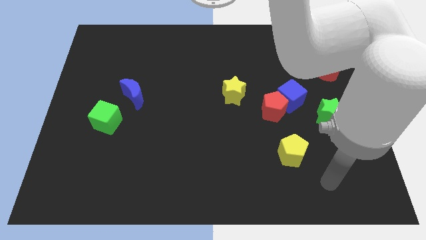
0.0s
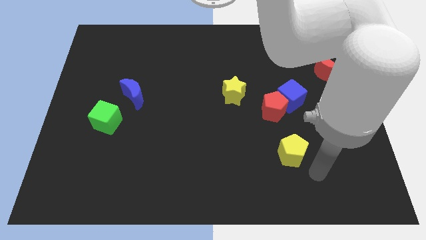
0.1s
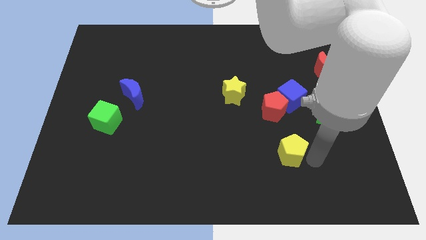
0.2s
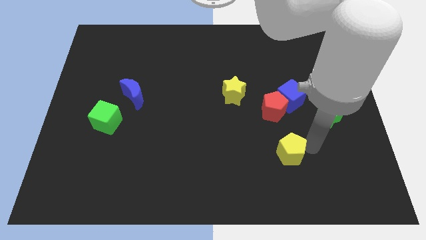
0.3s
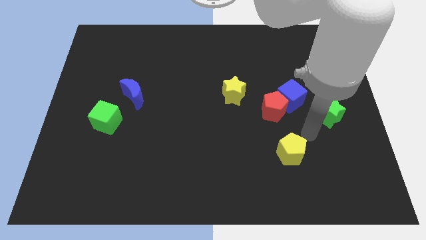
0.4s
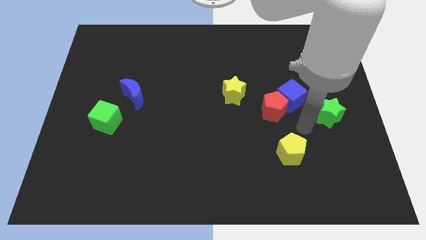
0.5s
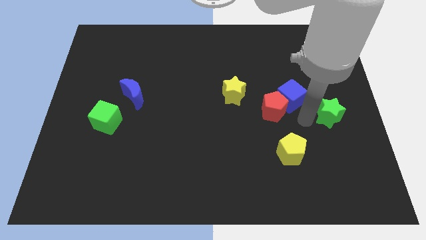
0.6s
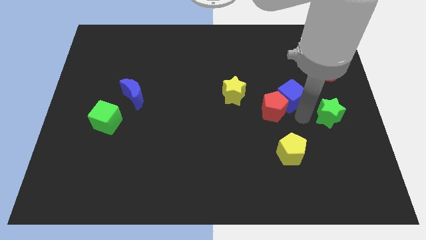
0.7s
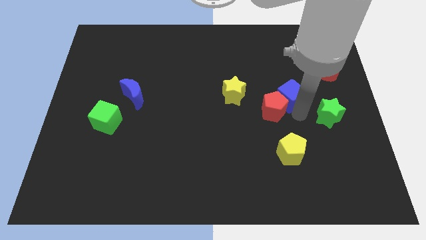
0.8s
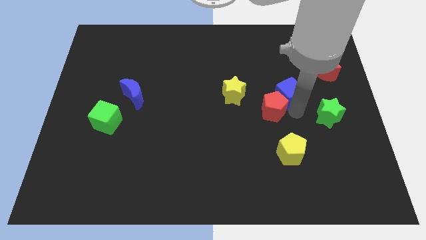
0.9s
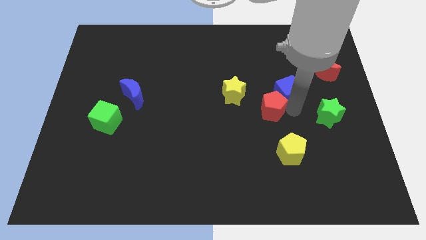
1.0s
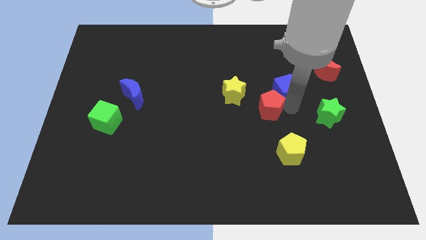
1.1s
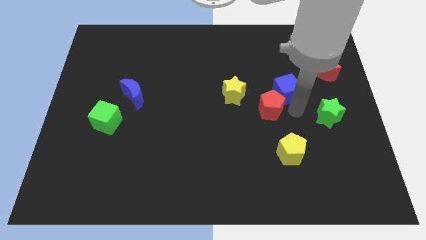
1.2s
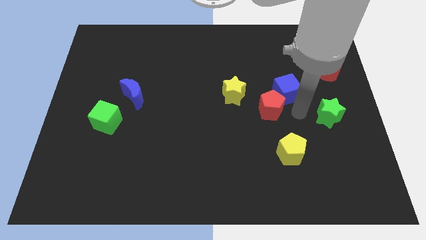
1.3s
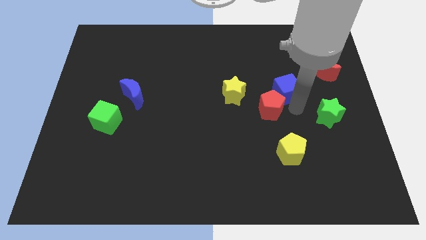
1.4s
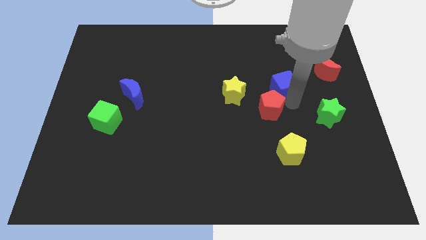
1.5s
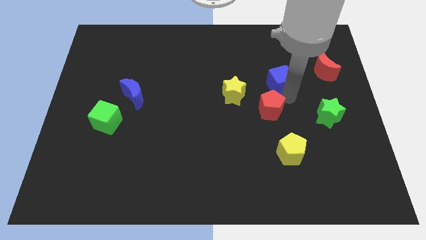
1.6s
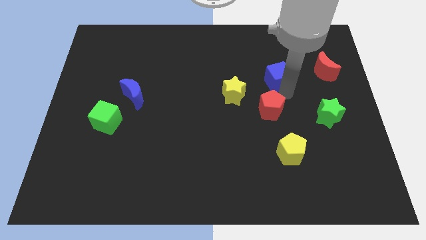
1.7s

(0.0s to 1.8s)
pull the blue cube apart from the red pentagon and green star

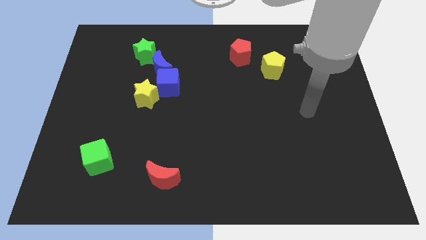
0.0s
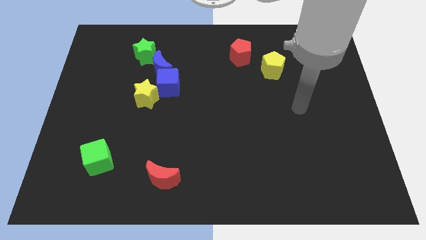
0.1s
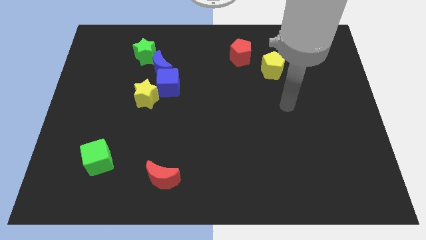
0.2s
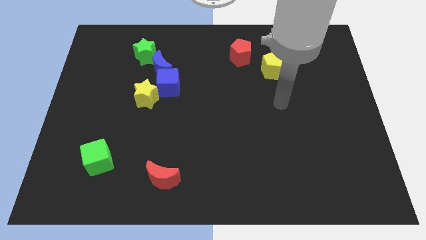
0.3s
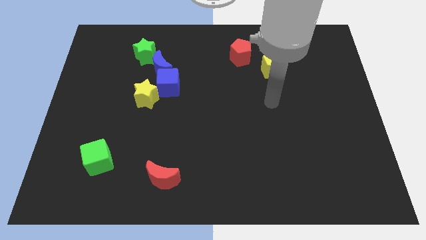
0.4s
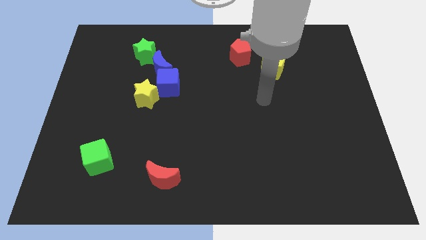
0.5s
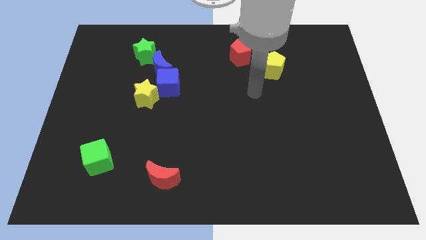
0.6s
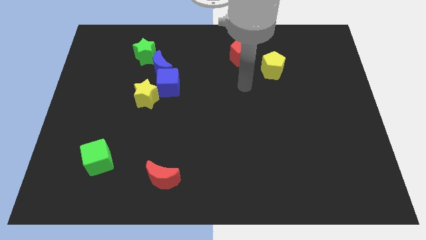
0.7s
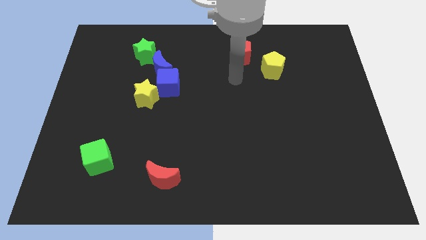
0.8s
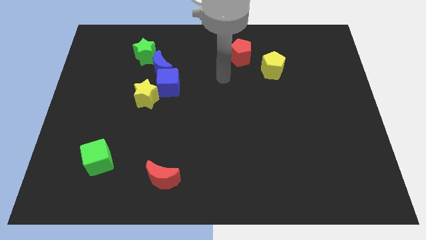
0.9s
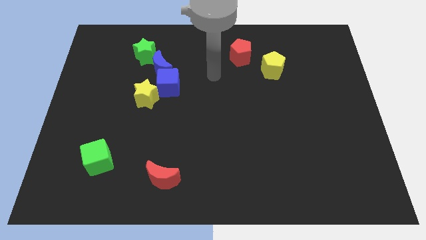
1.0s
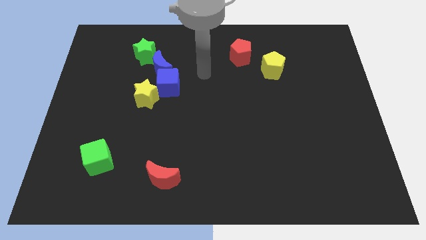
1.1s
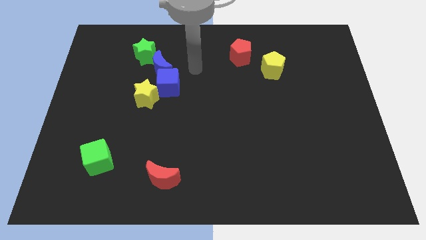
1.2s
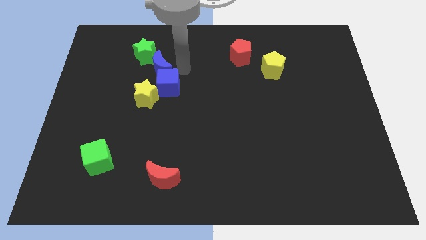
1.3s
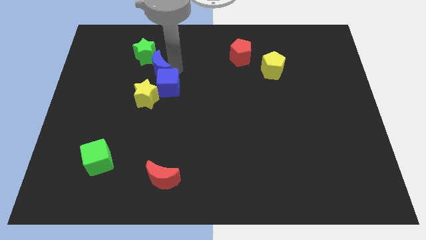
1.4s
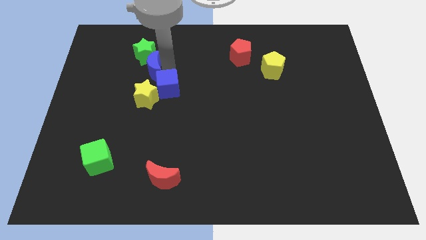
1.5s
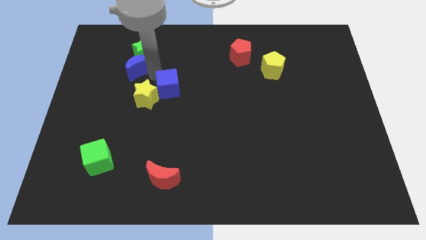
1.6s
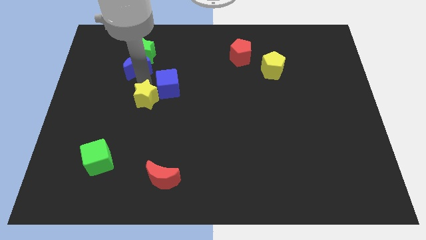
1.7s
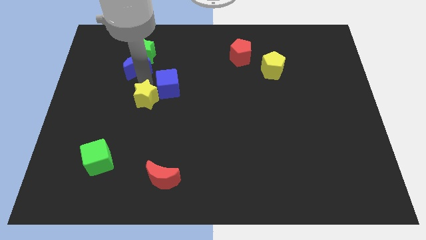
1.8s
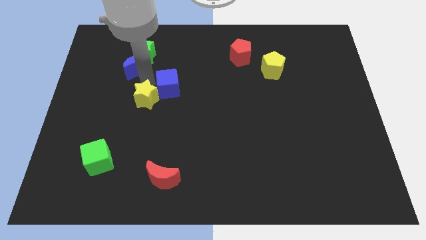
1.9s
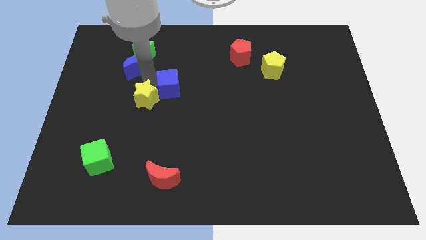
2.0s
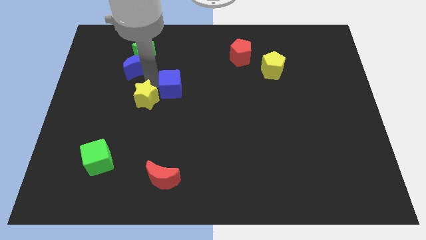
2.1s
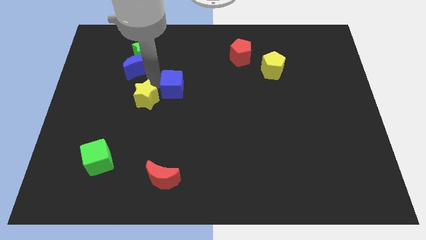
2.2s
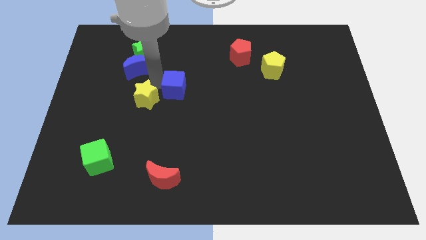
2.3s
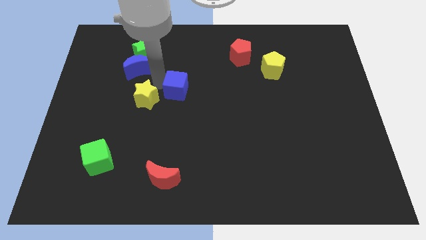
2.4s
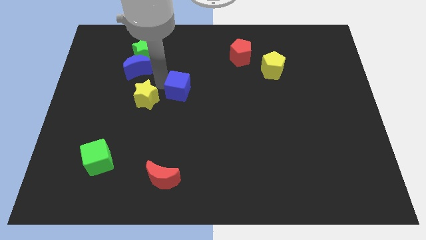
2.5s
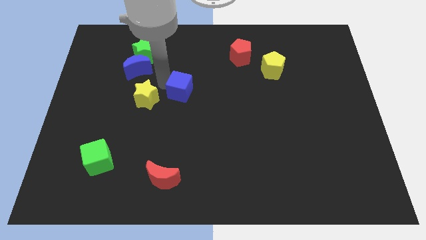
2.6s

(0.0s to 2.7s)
separate the blue cube from the blue moon and yellow star

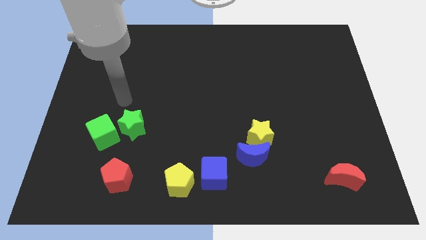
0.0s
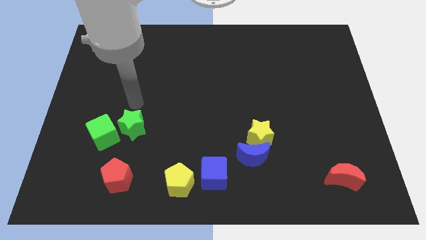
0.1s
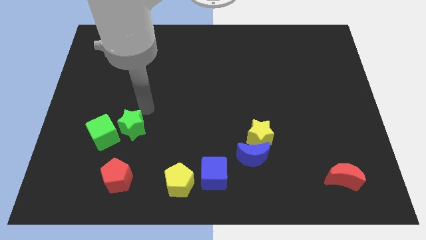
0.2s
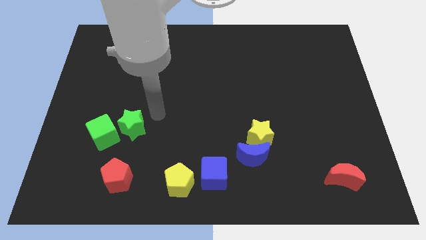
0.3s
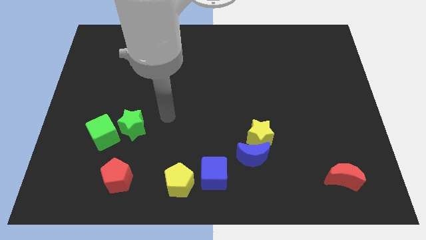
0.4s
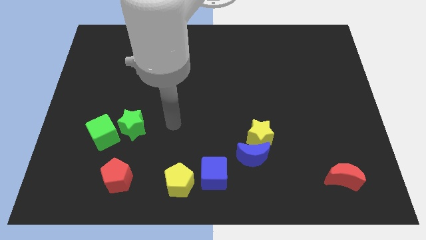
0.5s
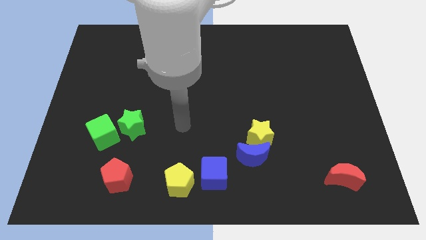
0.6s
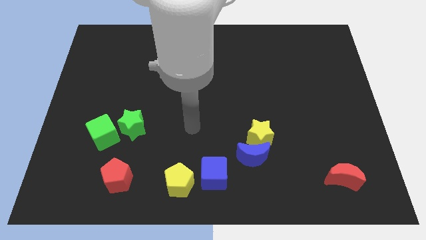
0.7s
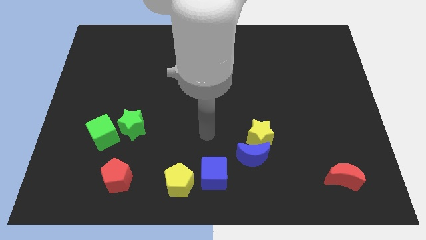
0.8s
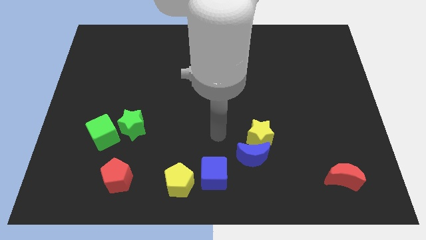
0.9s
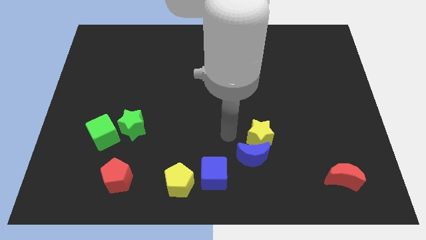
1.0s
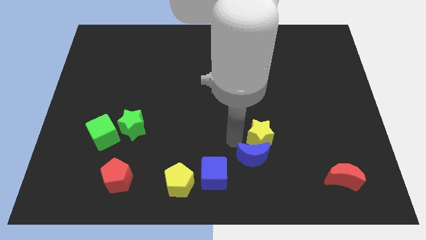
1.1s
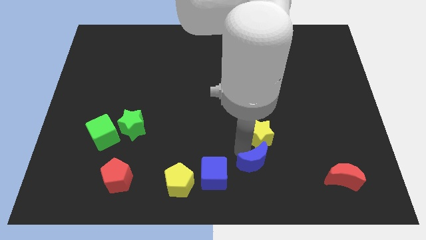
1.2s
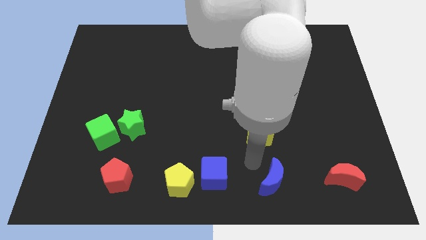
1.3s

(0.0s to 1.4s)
pull the yellow star apart from the blue moon

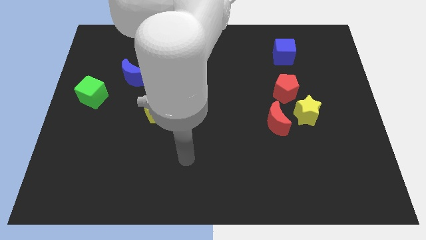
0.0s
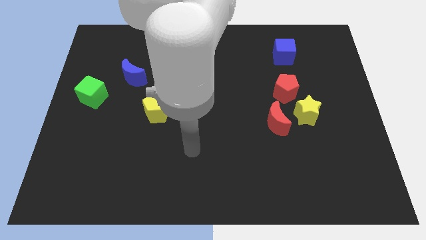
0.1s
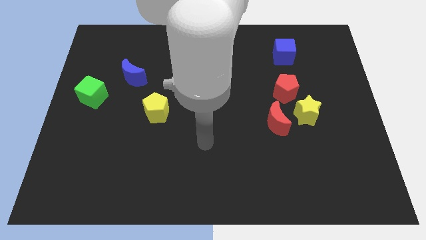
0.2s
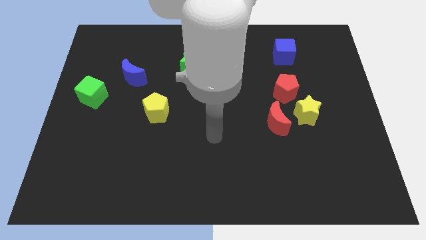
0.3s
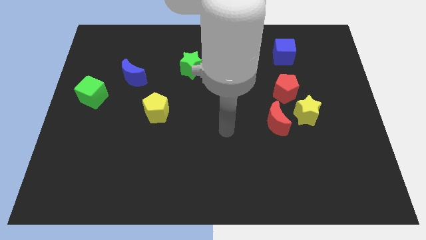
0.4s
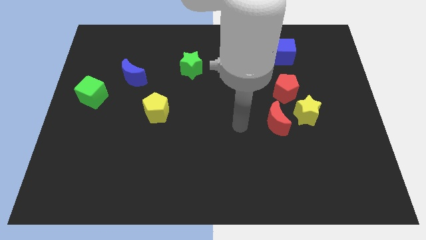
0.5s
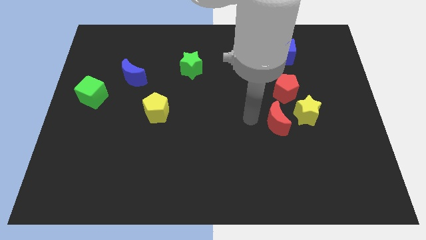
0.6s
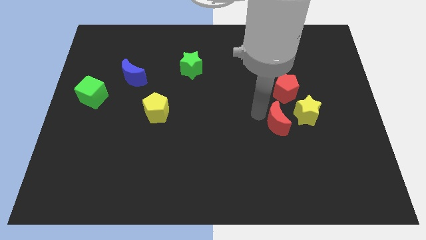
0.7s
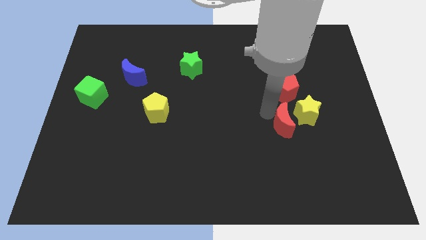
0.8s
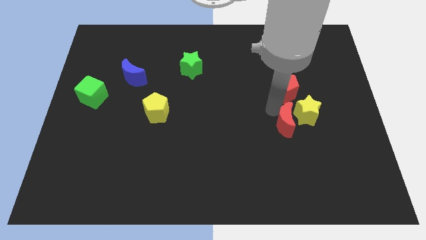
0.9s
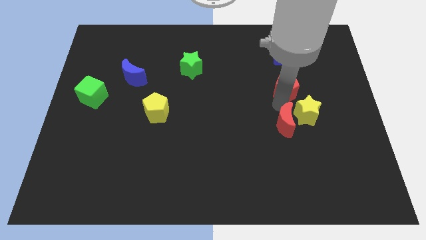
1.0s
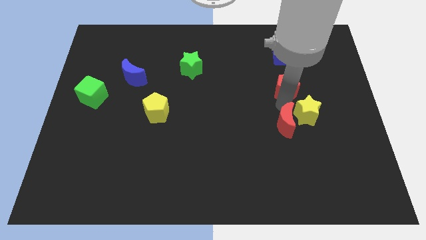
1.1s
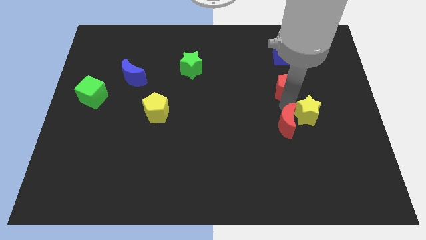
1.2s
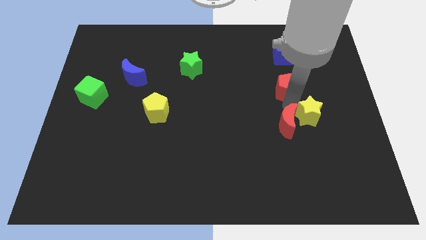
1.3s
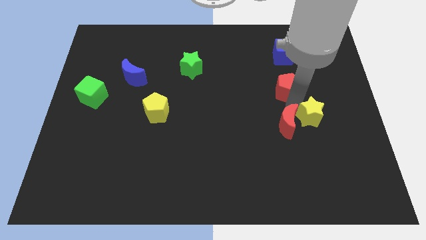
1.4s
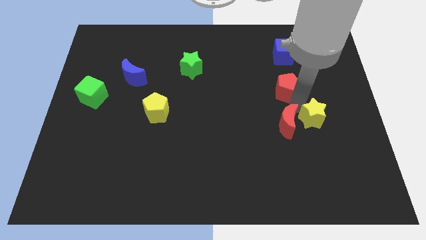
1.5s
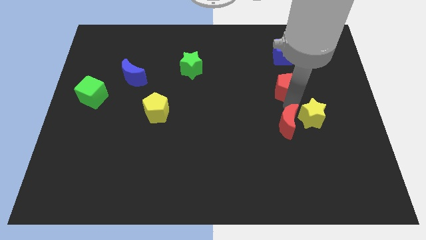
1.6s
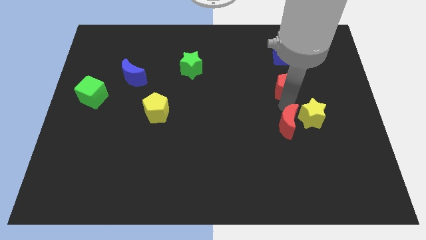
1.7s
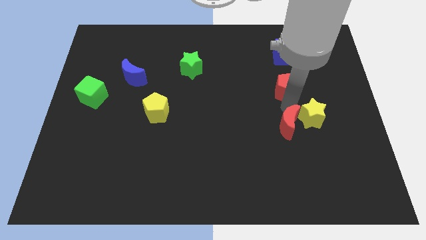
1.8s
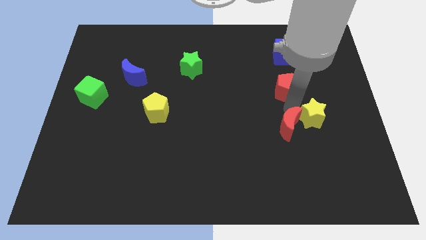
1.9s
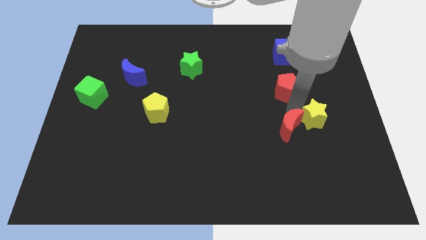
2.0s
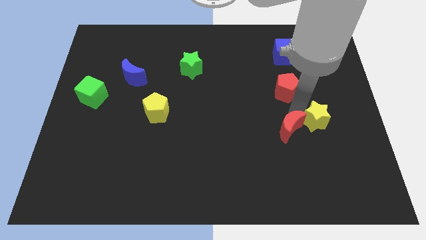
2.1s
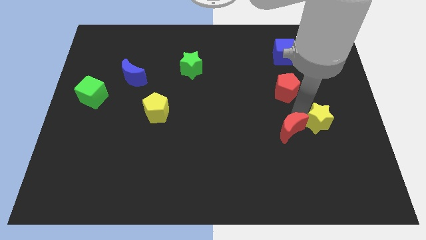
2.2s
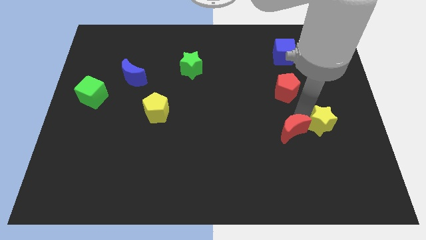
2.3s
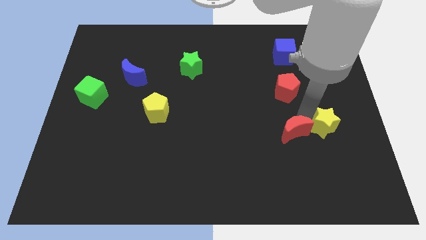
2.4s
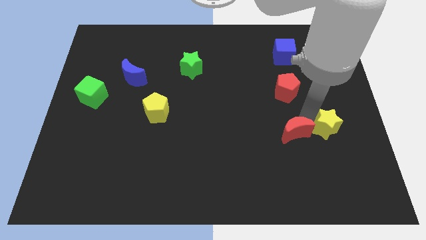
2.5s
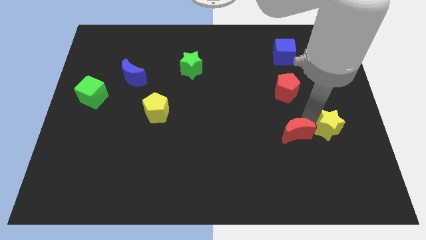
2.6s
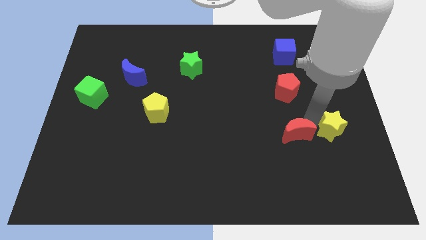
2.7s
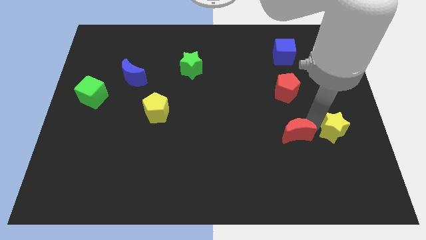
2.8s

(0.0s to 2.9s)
separate the yellow star from the red moon and red pentagon

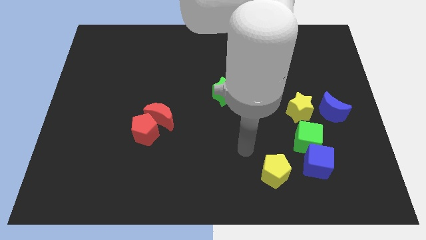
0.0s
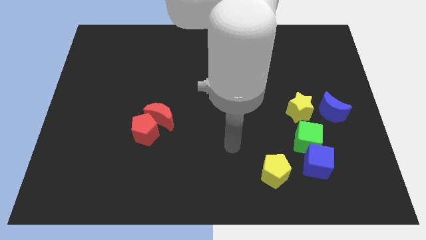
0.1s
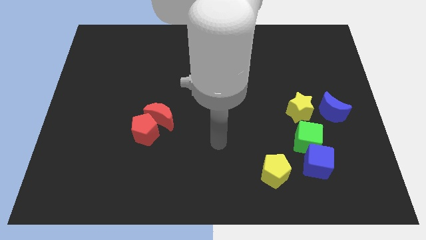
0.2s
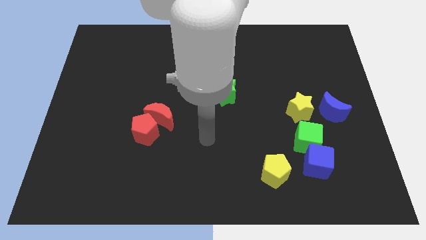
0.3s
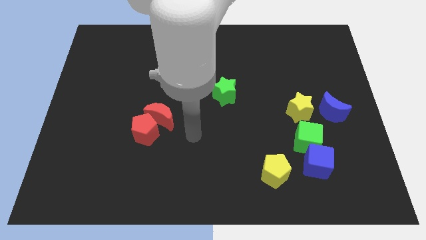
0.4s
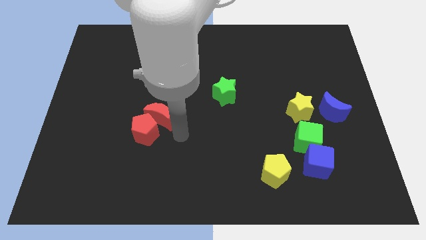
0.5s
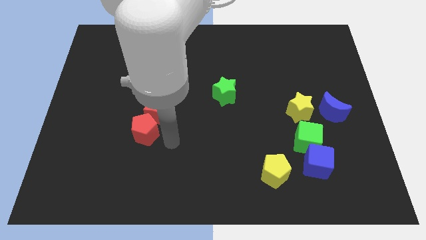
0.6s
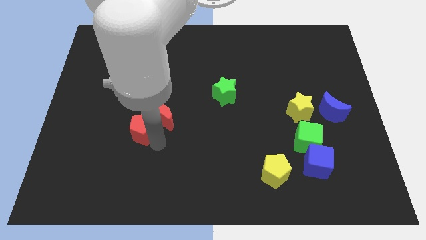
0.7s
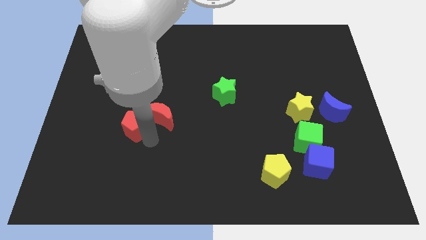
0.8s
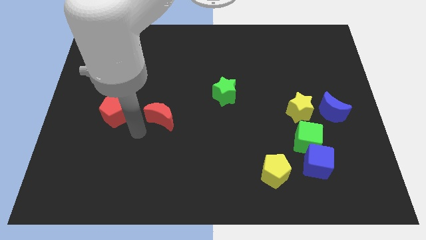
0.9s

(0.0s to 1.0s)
pull the red moon apart from the red pentagon
